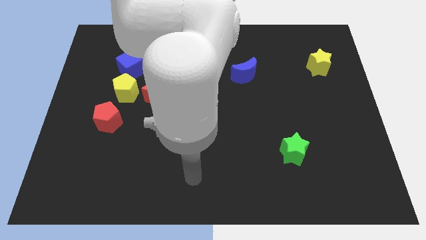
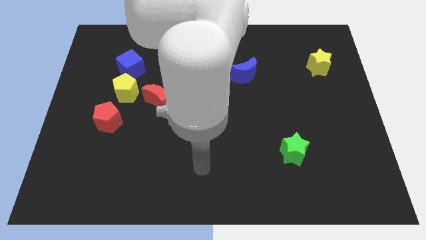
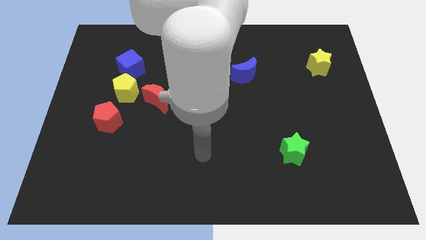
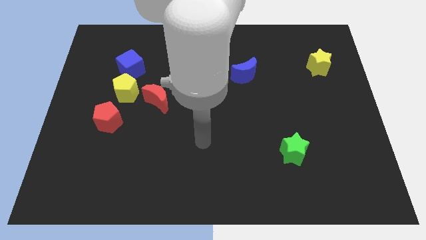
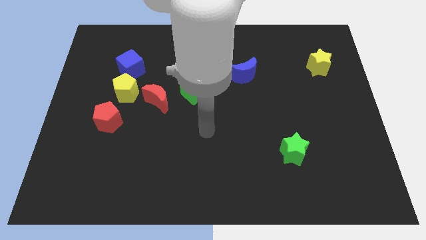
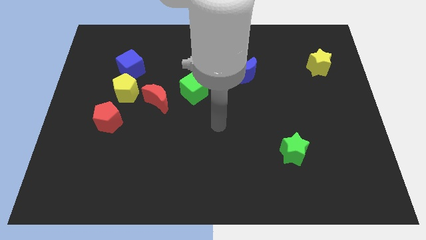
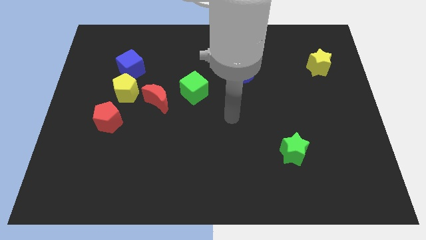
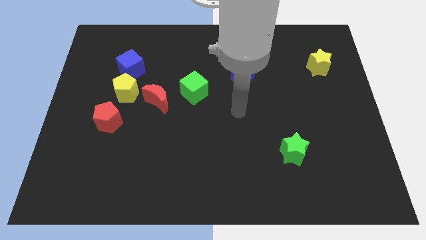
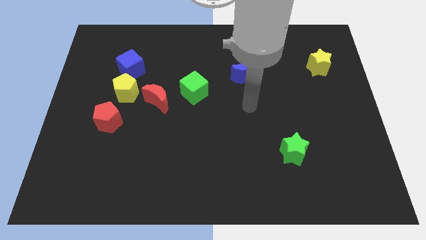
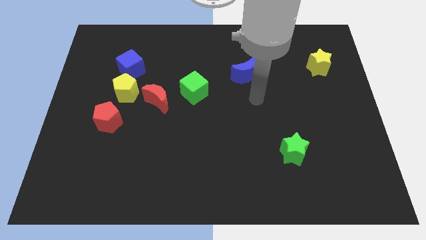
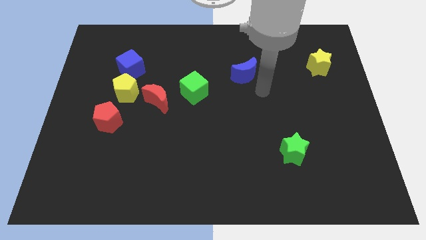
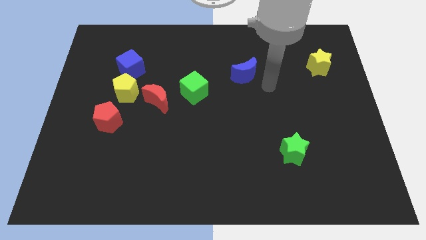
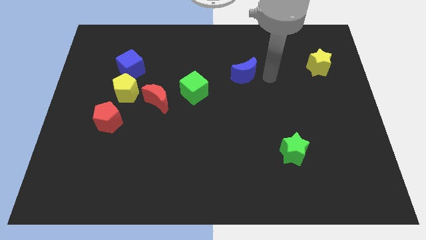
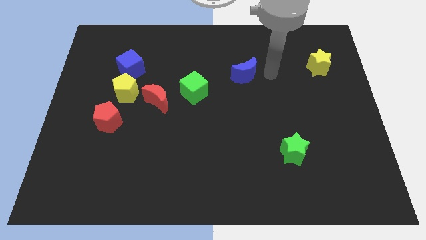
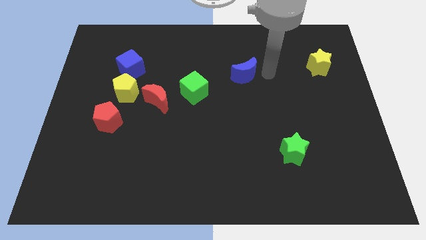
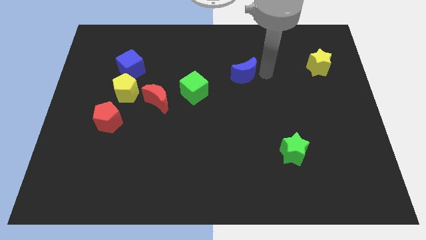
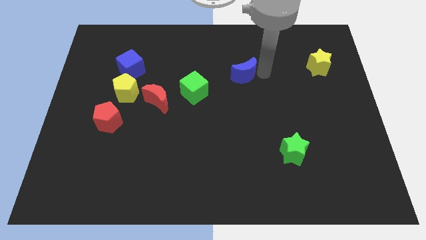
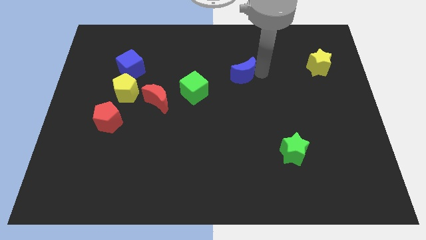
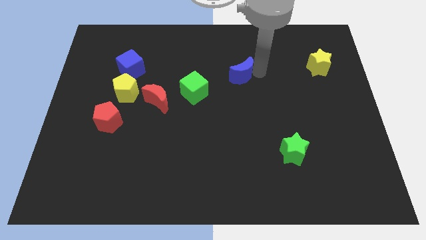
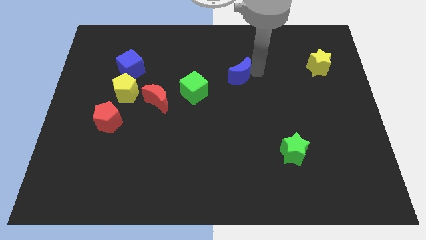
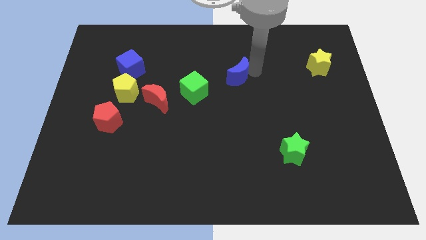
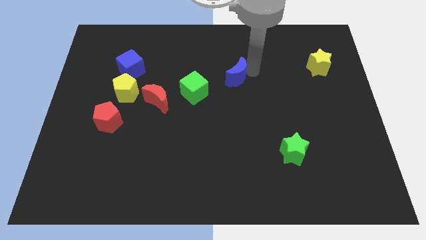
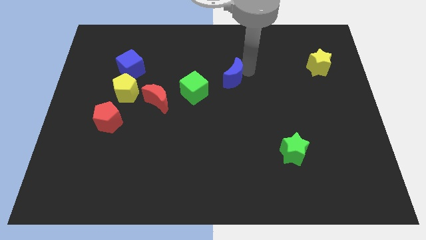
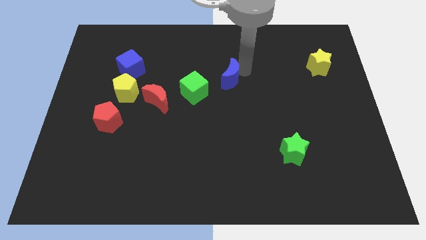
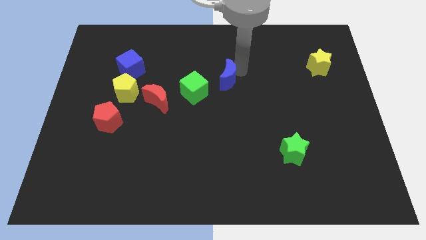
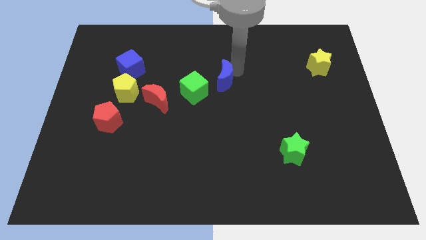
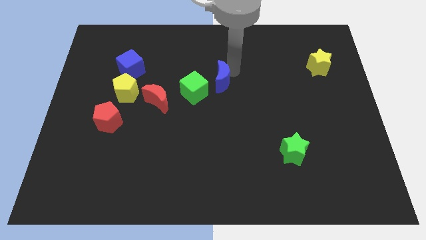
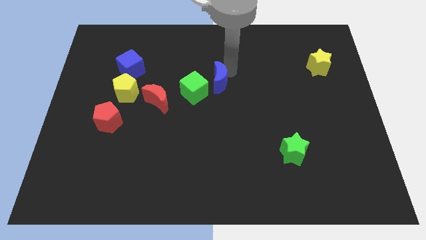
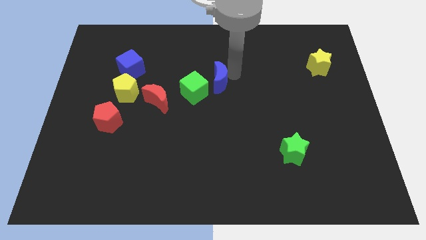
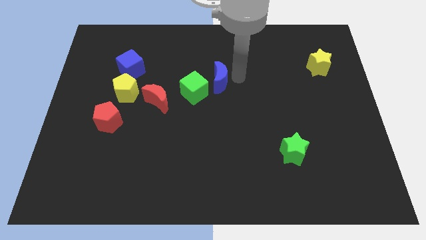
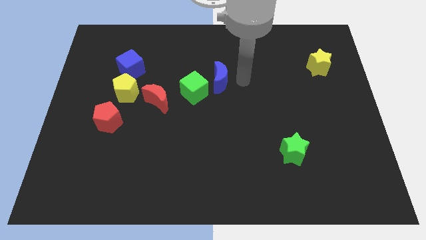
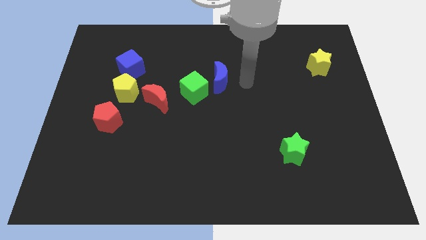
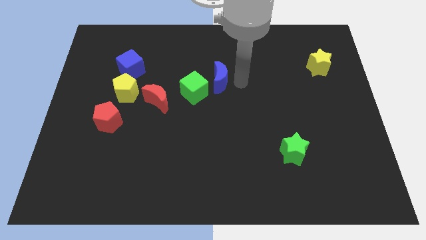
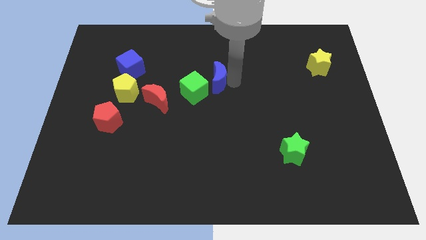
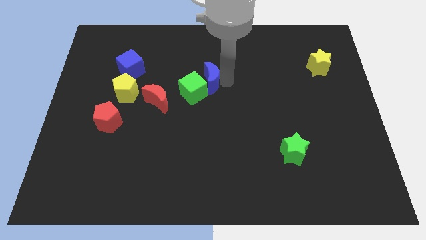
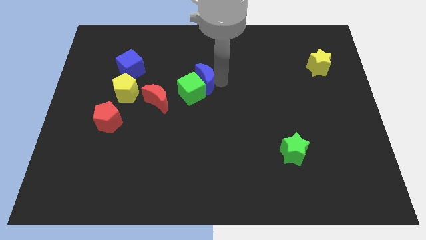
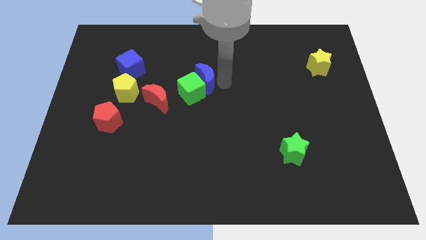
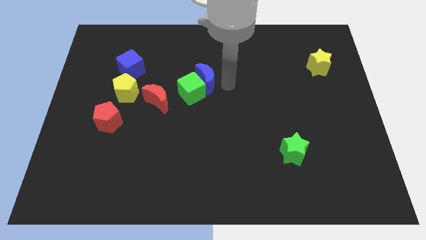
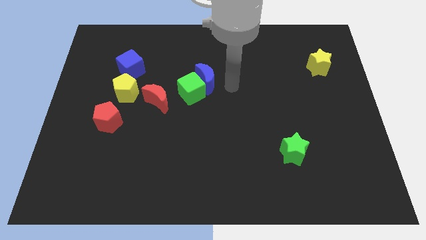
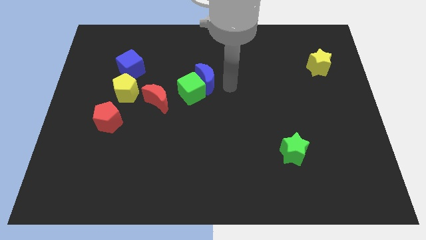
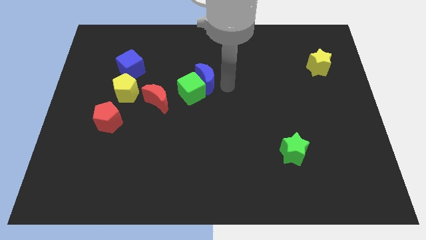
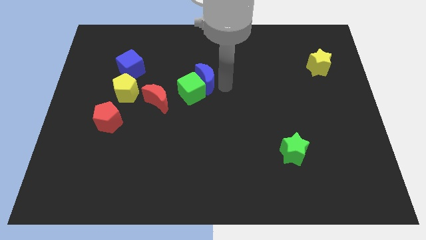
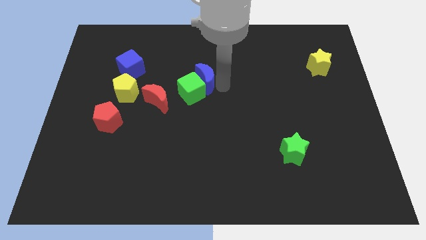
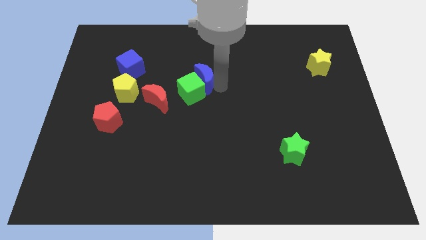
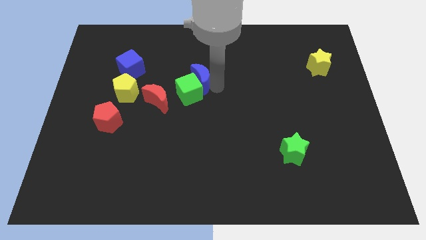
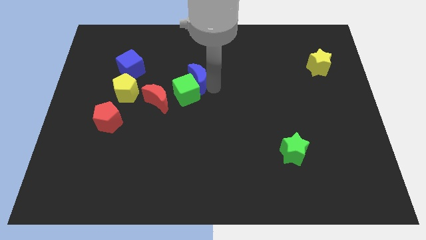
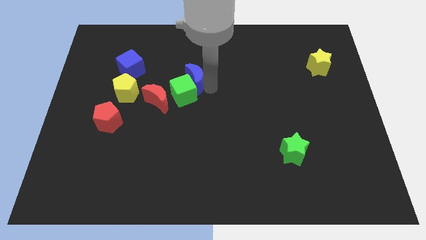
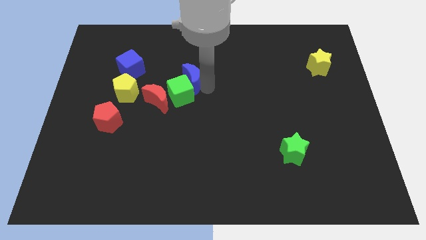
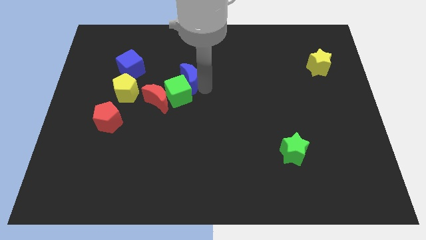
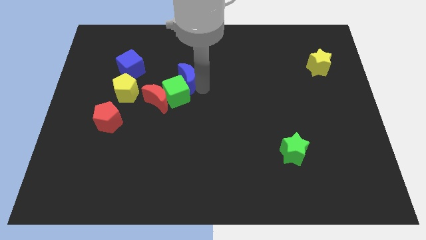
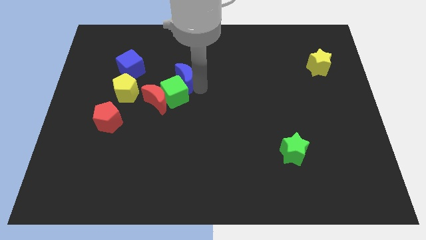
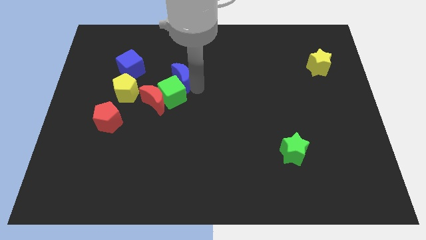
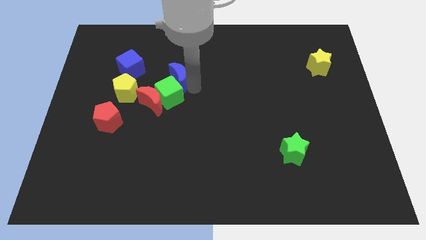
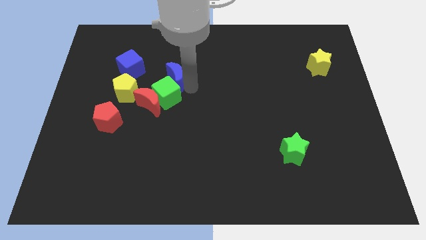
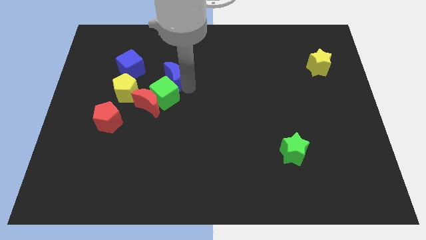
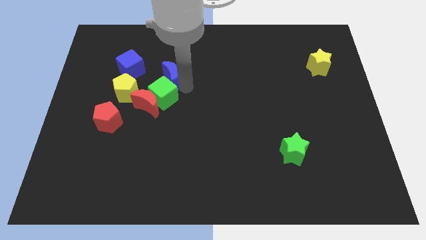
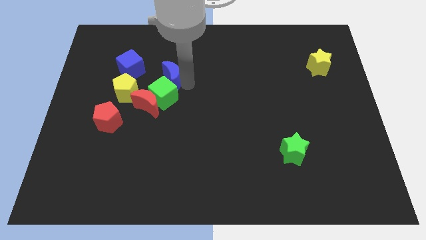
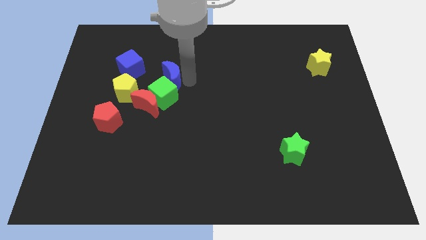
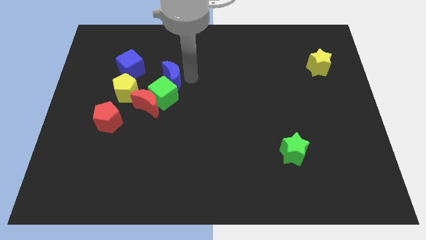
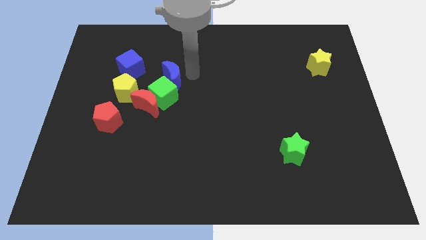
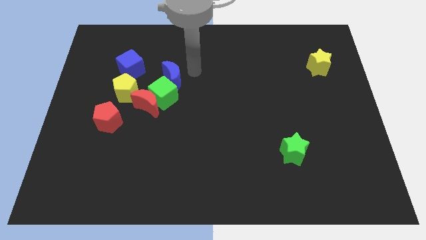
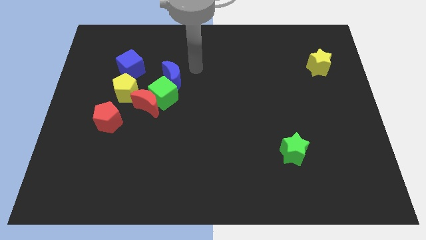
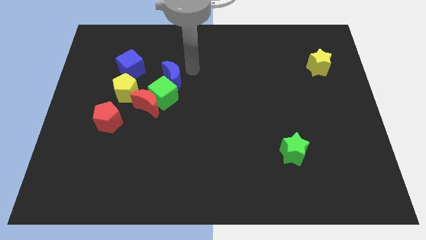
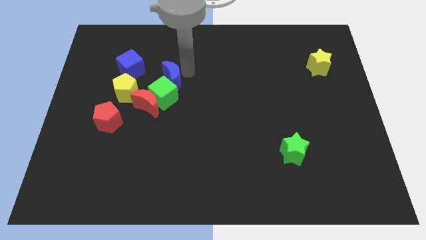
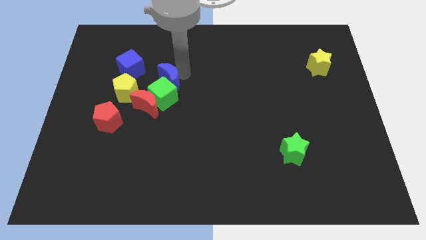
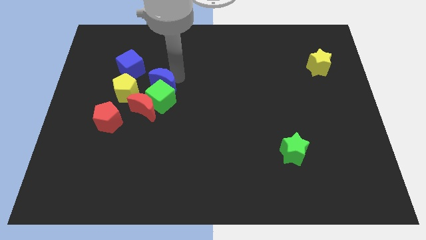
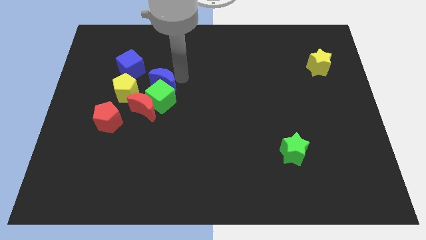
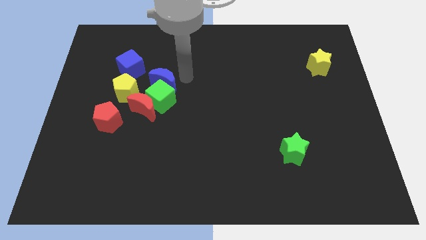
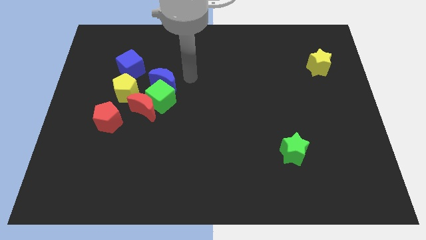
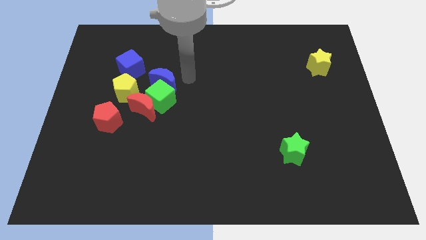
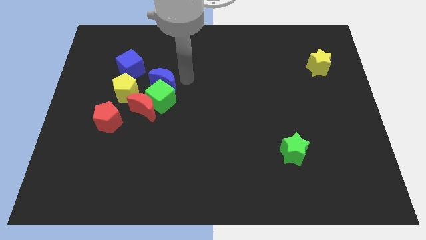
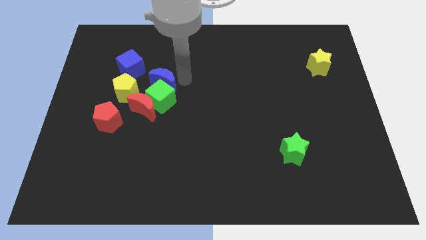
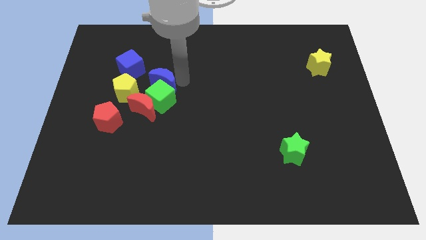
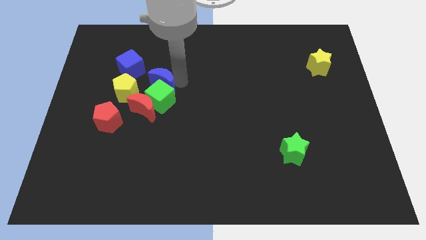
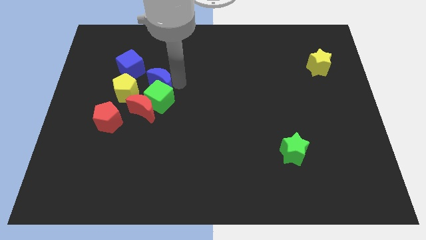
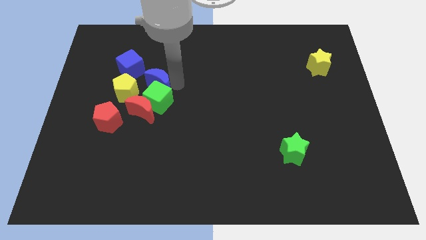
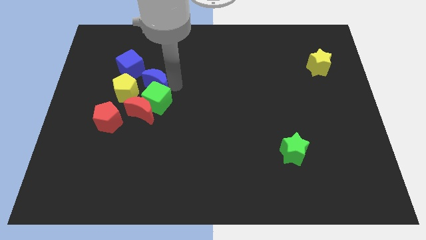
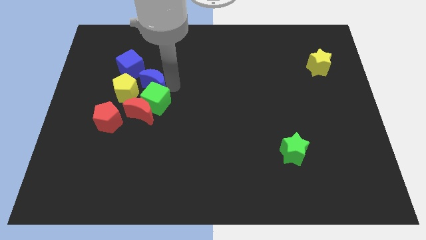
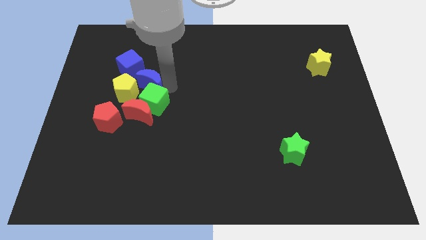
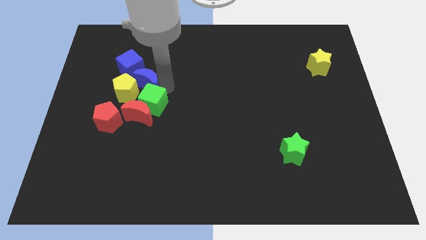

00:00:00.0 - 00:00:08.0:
move the blue moon close to the yellow pentagon
